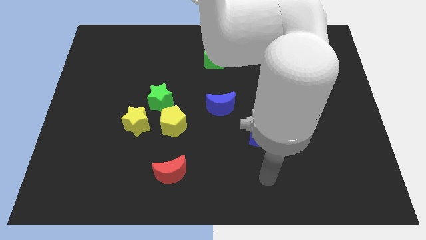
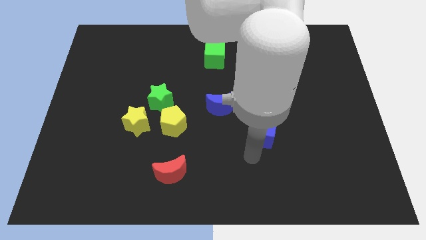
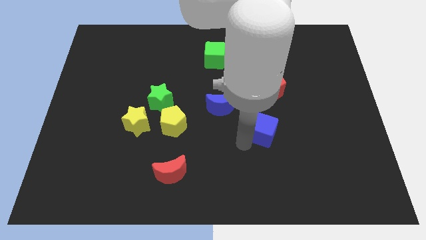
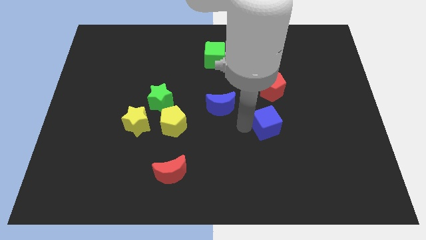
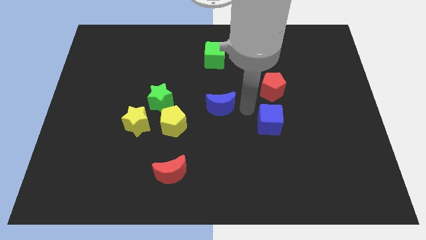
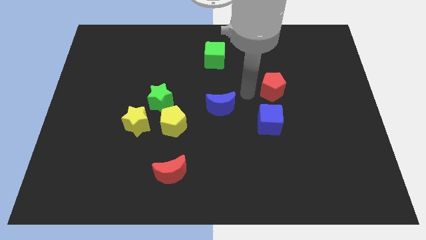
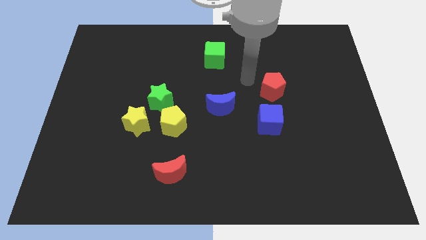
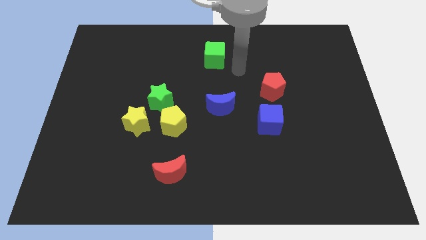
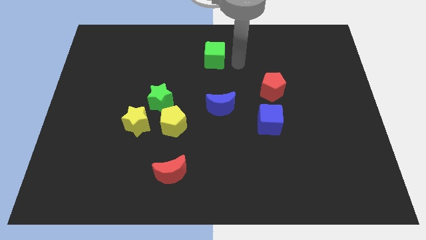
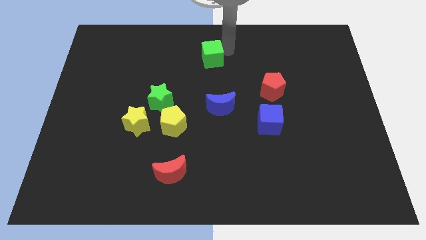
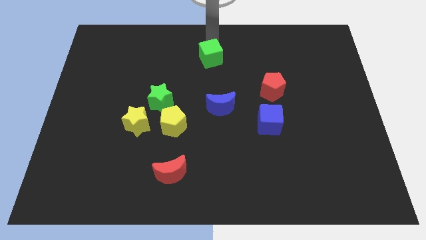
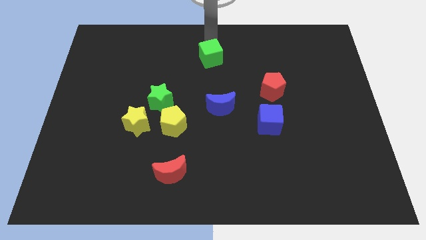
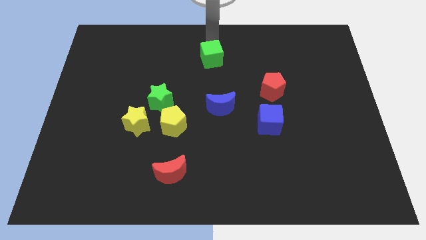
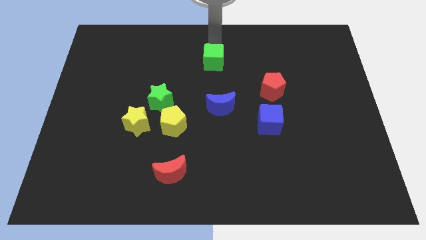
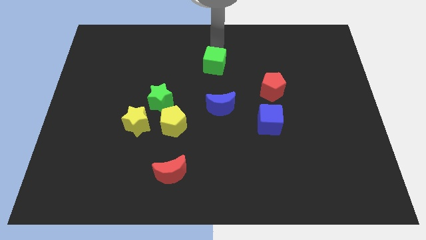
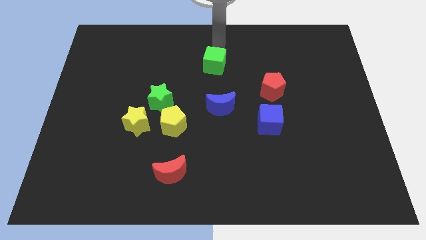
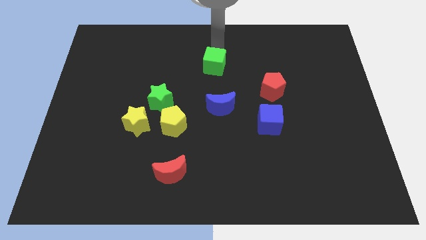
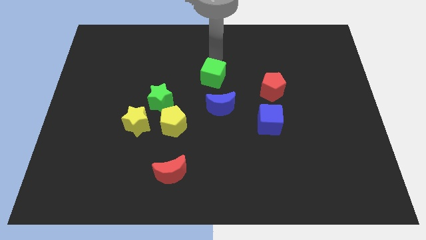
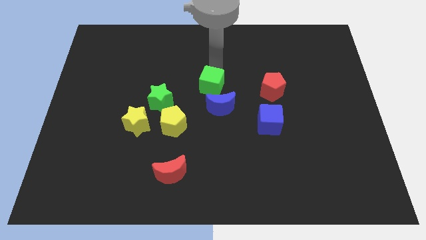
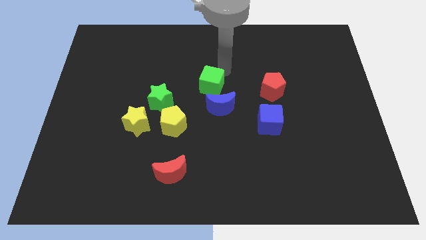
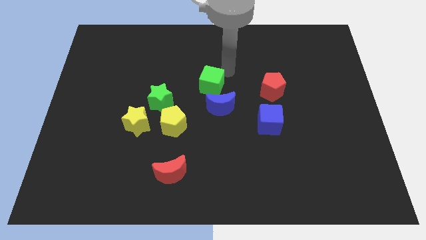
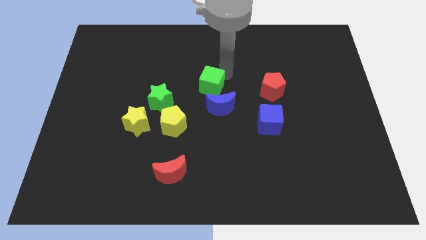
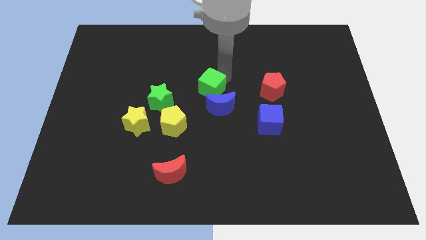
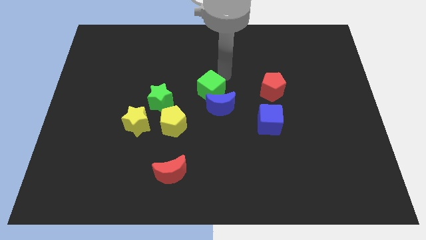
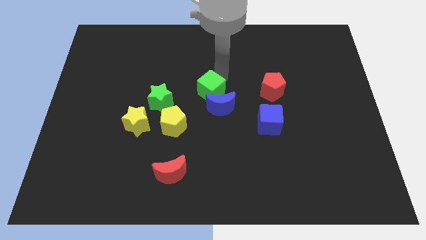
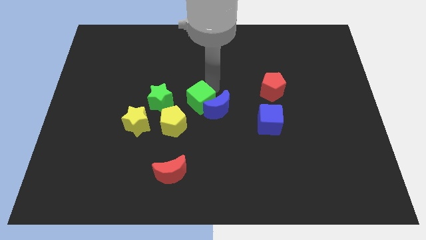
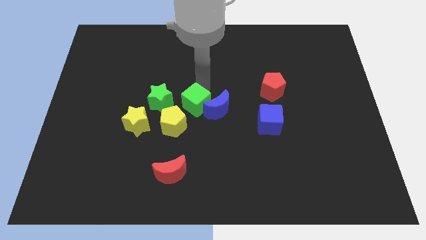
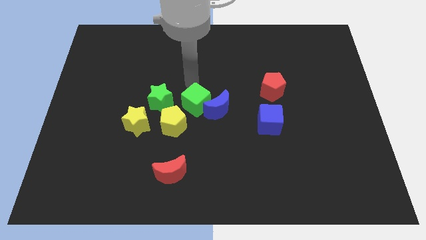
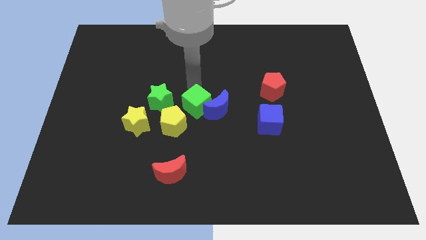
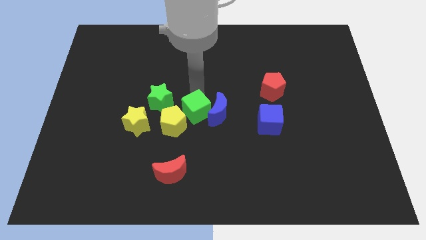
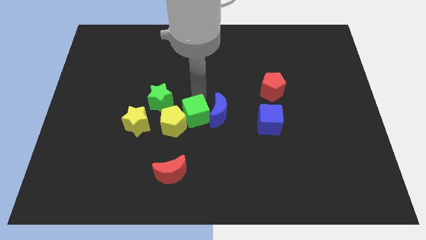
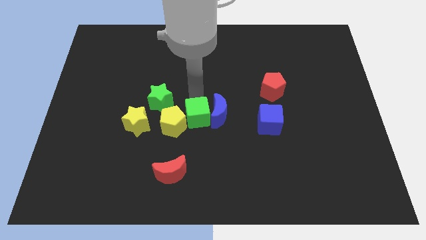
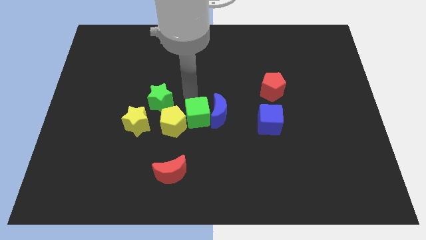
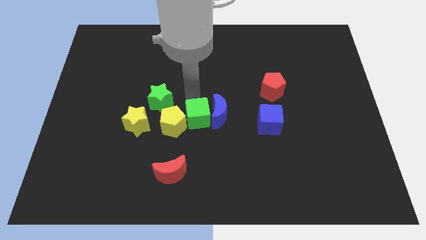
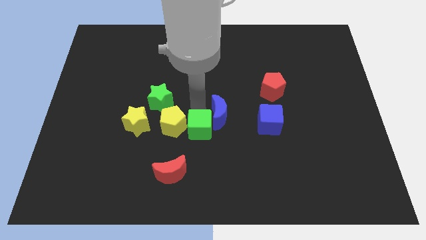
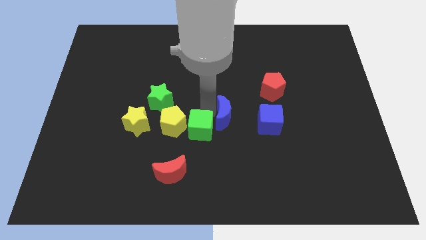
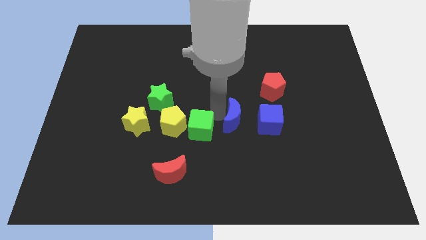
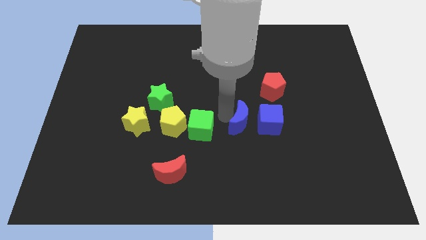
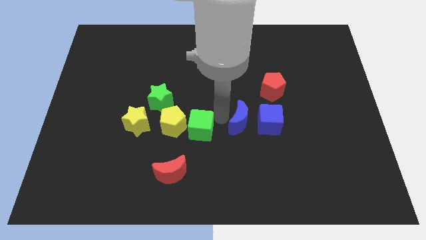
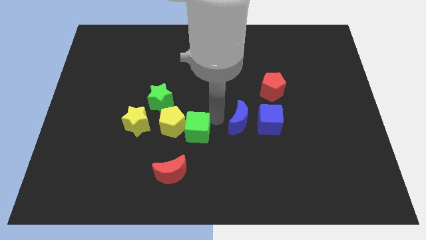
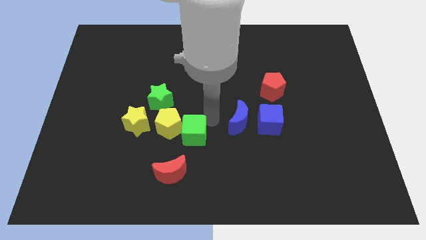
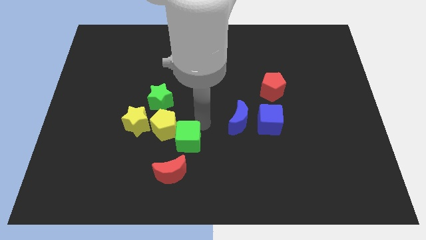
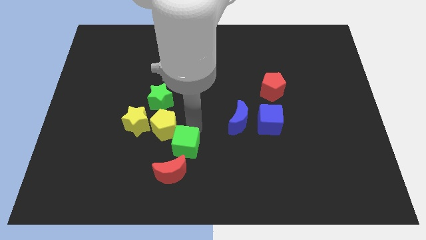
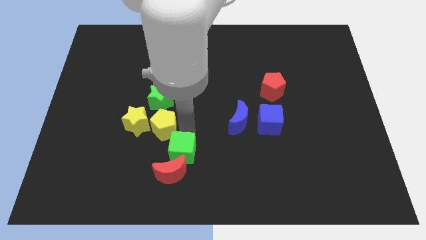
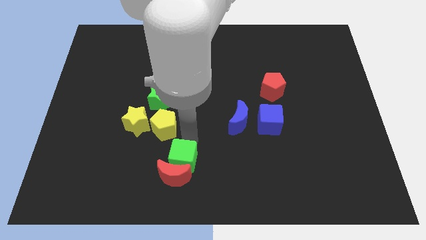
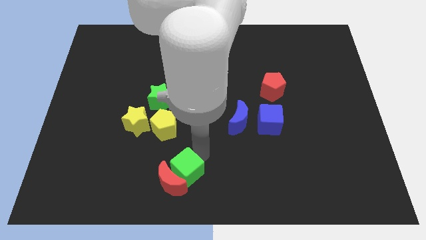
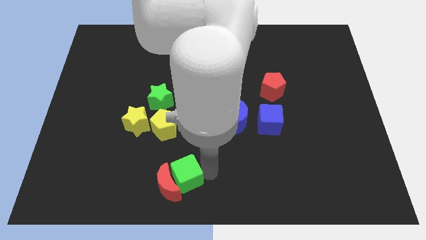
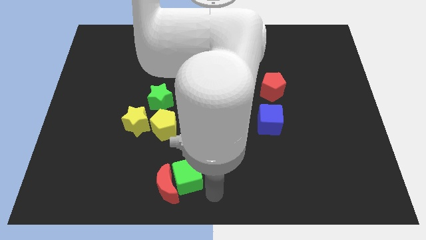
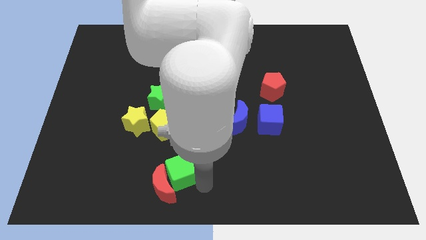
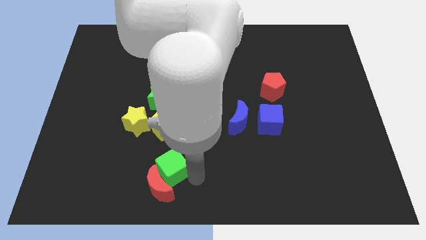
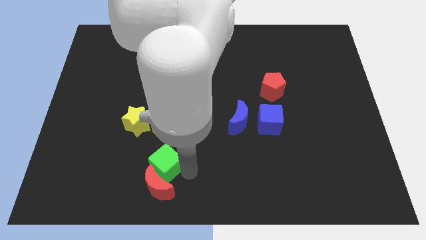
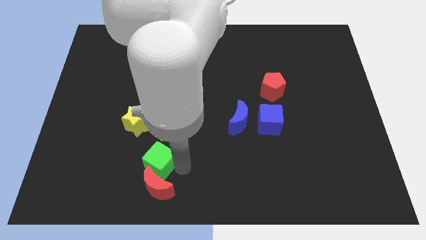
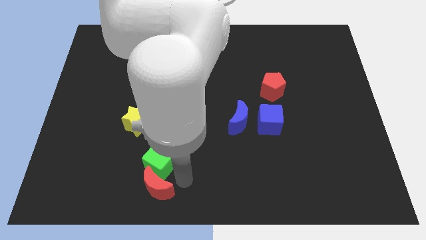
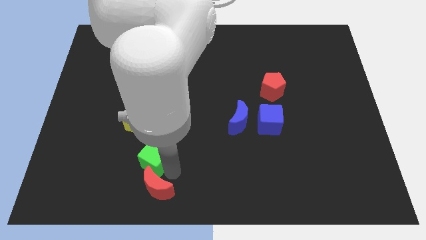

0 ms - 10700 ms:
push the green cube to the bottom left of the yellow pentagon

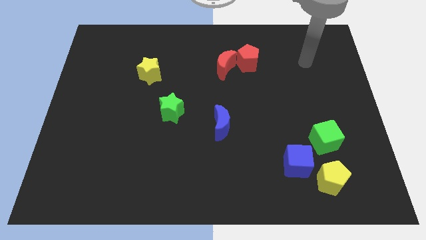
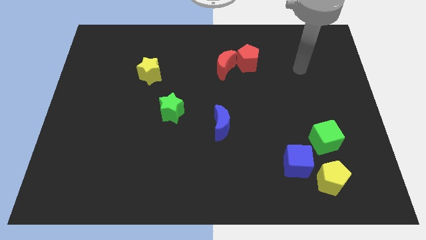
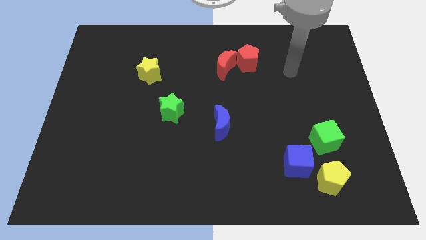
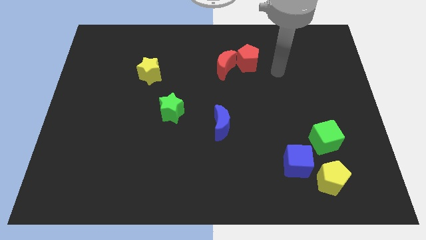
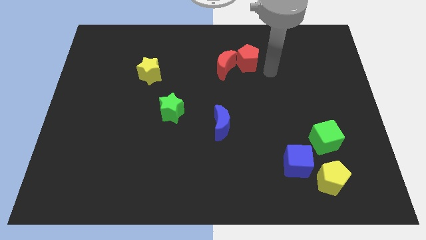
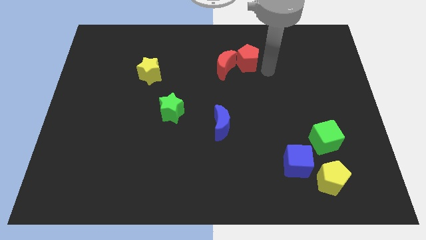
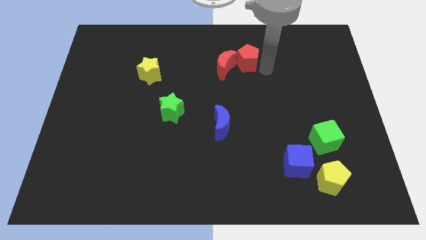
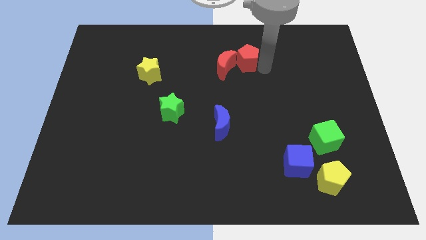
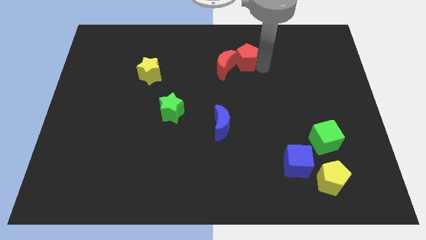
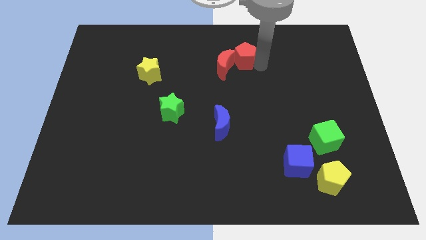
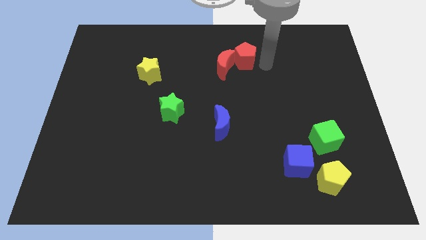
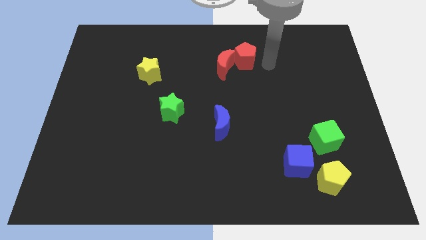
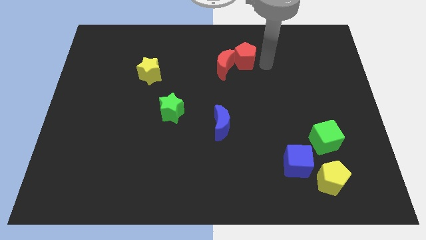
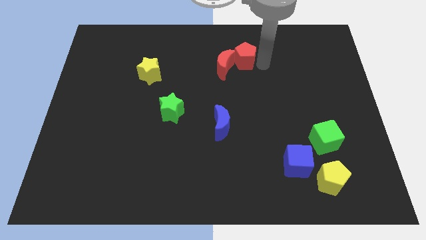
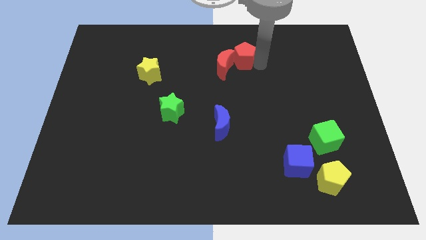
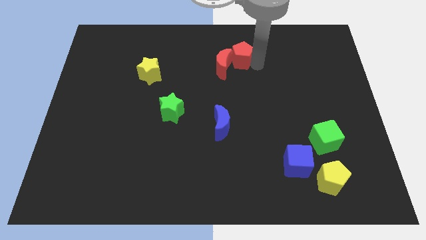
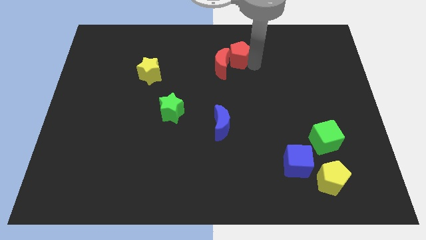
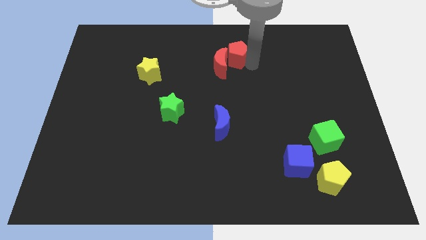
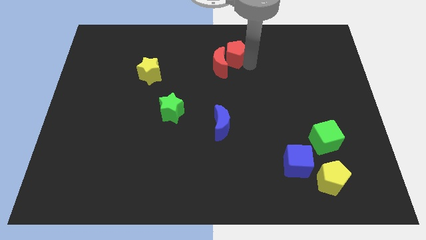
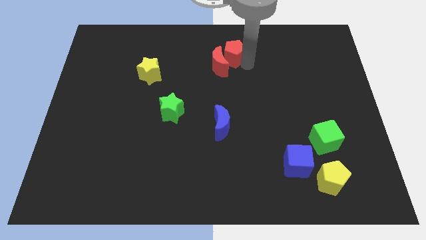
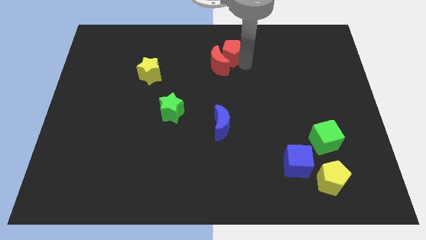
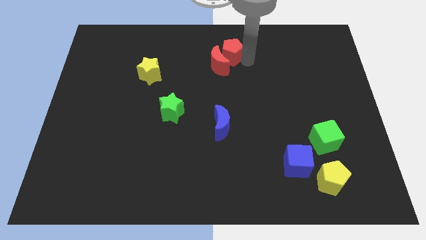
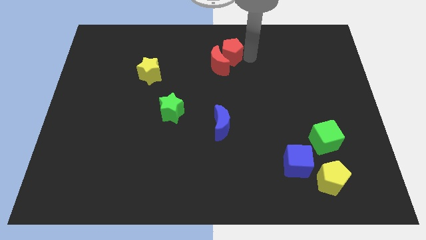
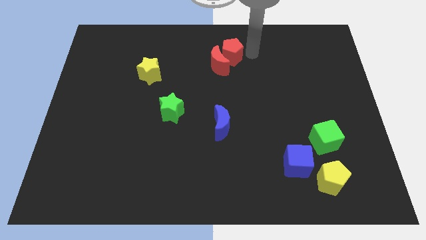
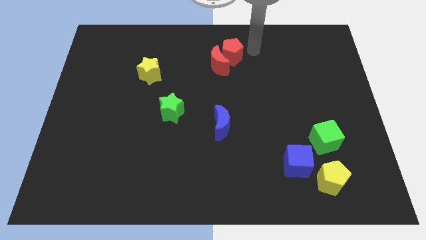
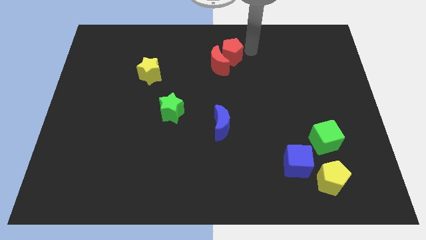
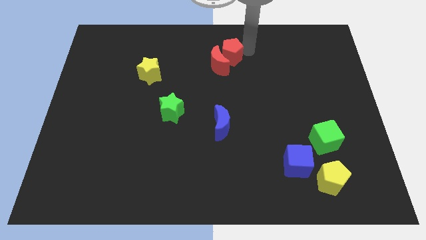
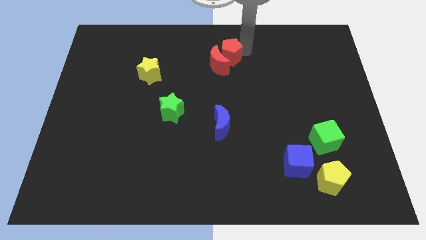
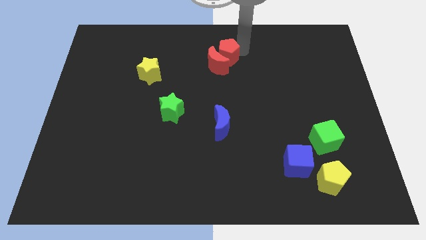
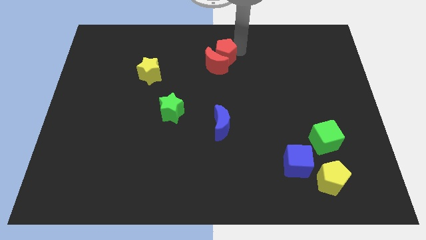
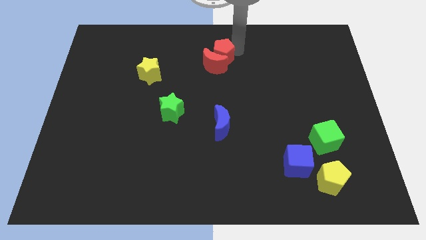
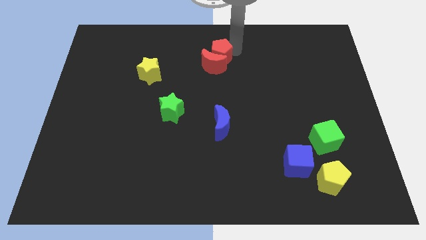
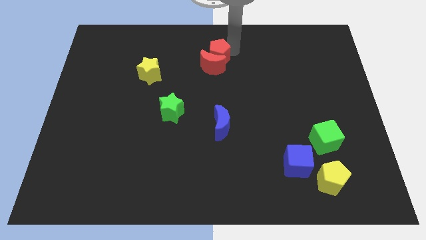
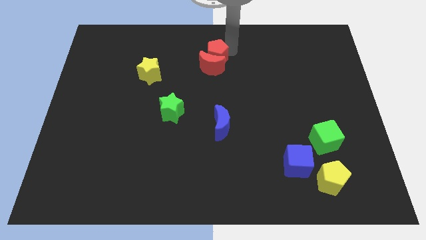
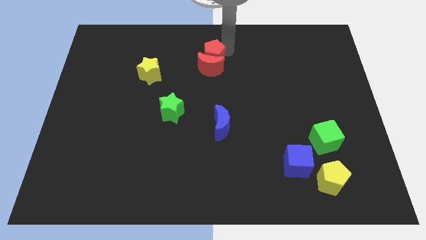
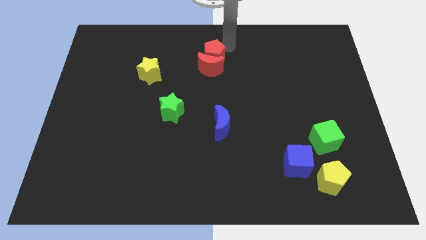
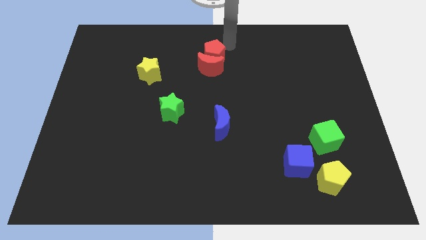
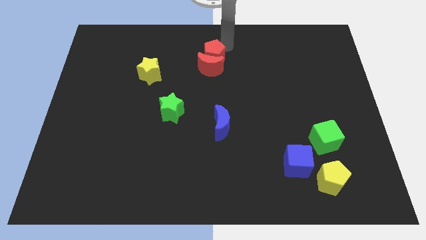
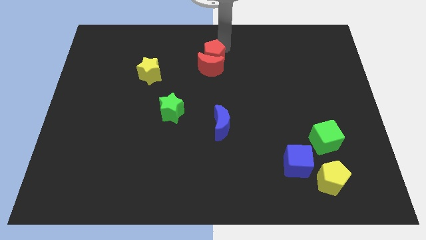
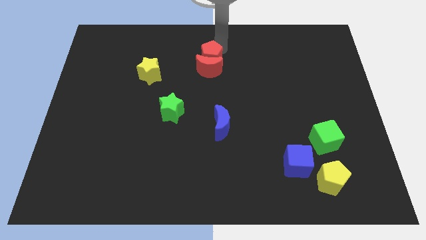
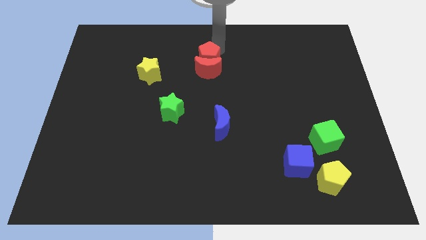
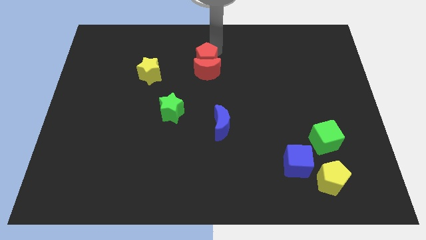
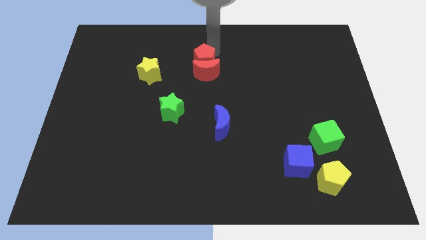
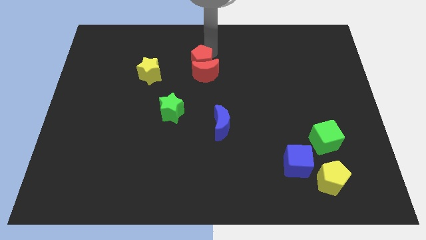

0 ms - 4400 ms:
move the red pentagon right of the yellow star
